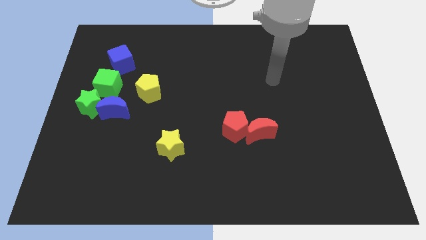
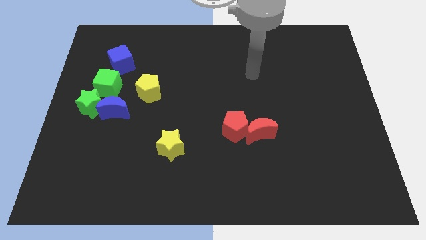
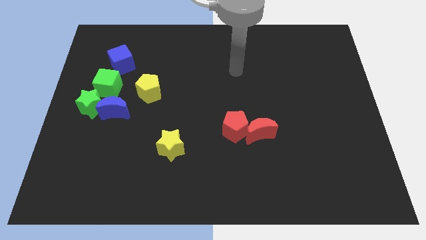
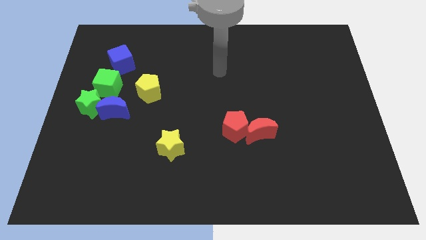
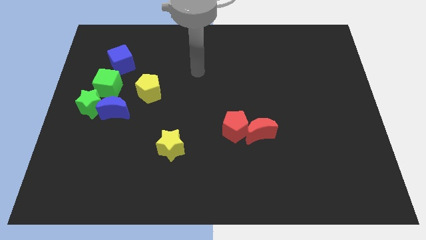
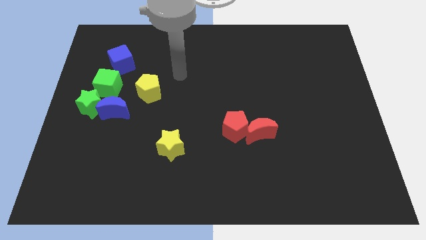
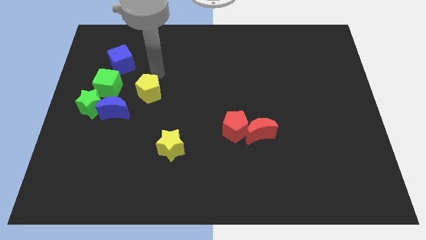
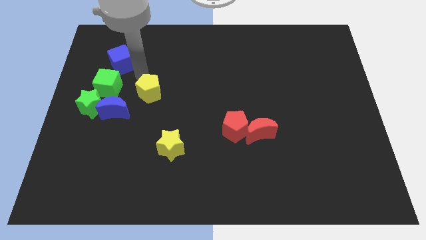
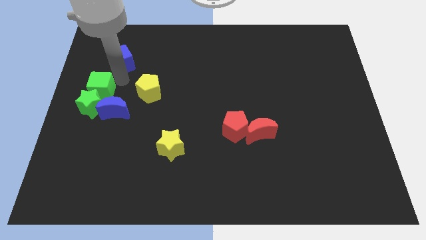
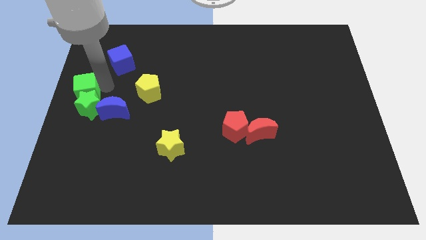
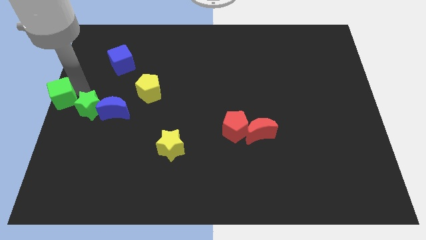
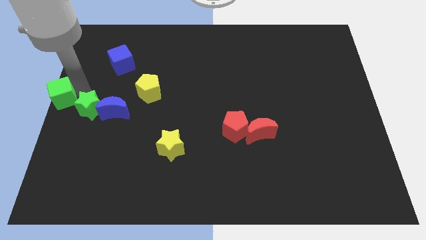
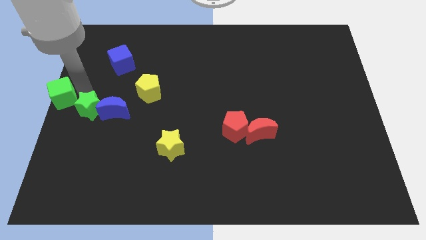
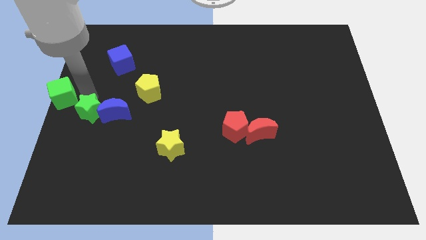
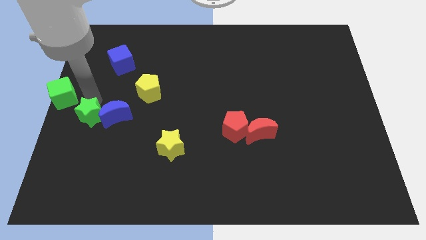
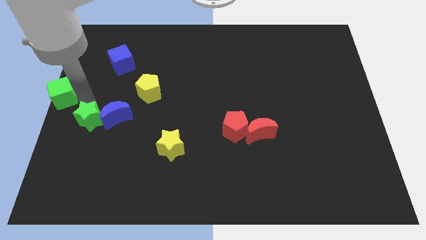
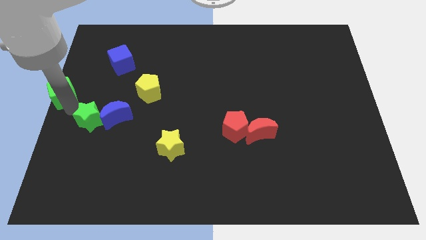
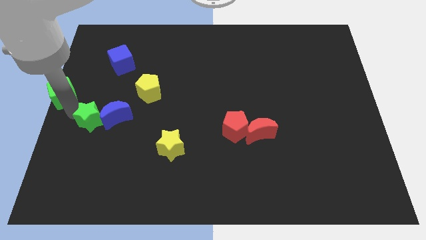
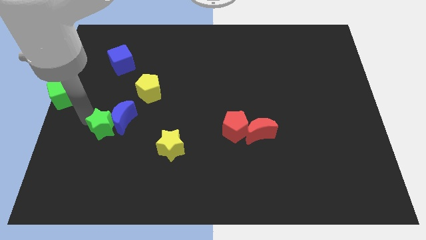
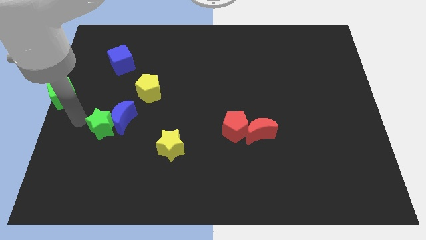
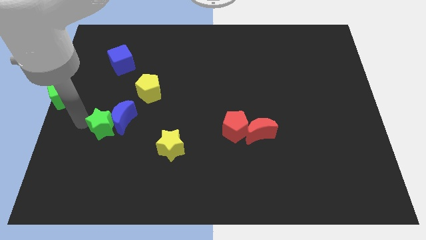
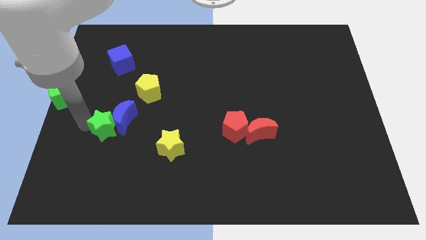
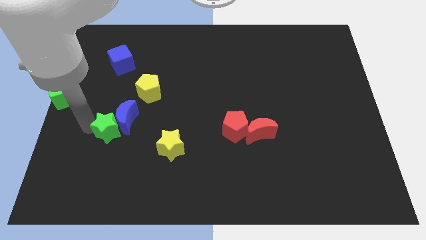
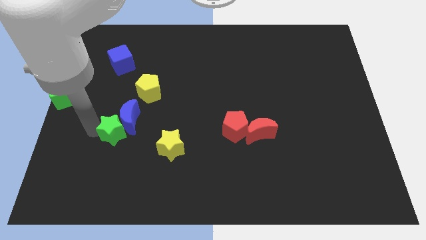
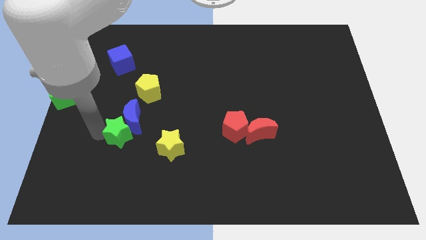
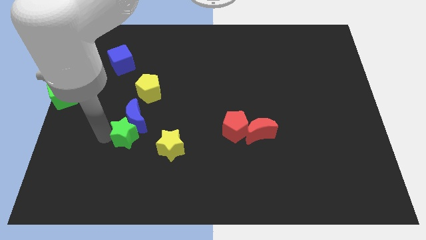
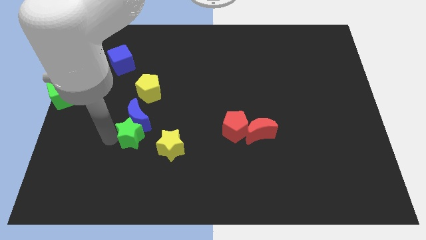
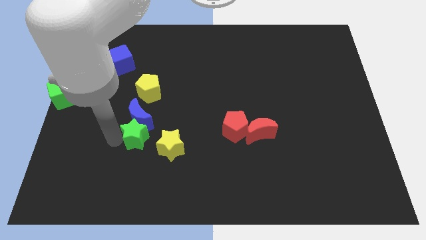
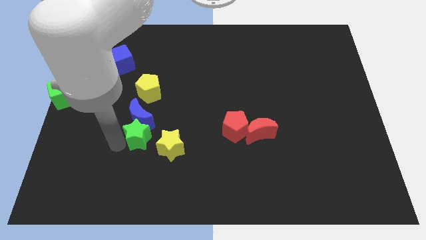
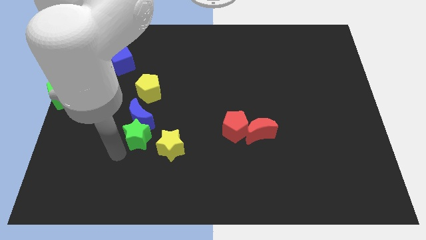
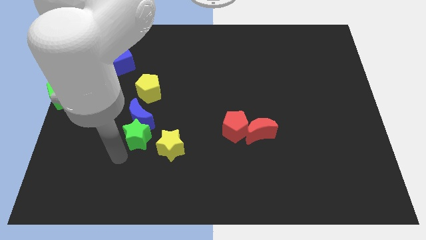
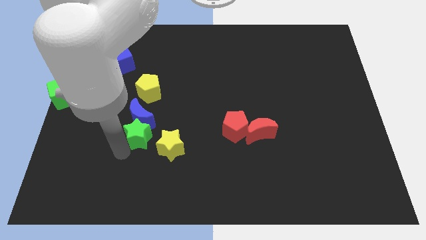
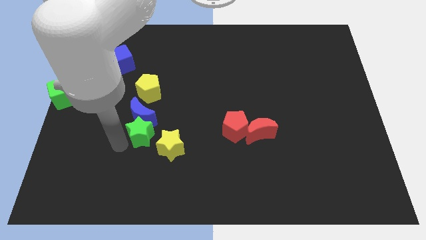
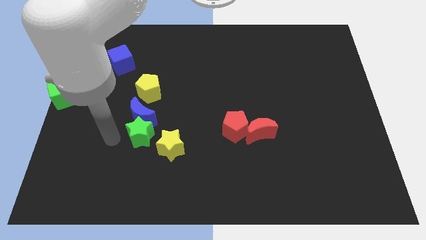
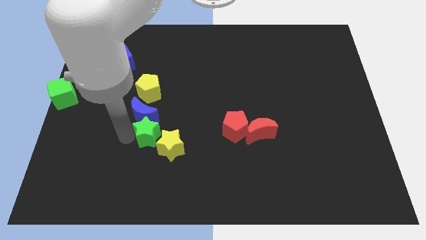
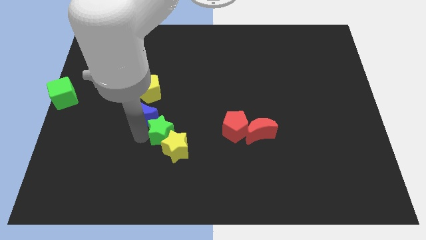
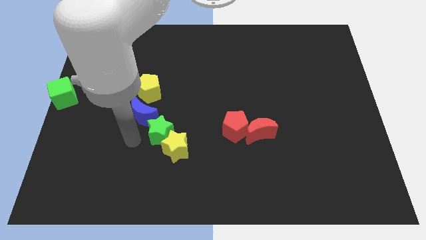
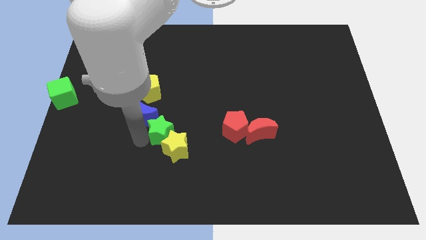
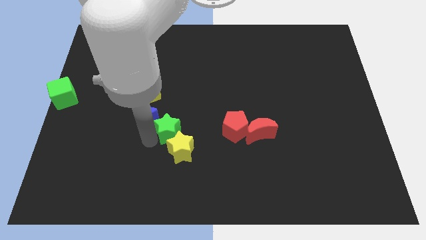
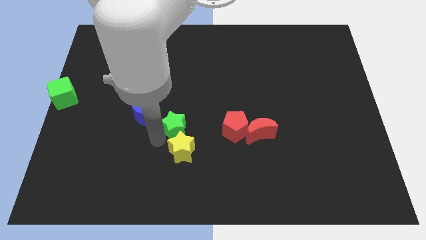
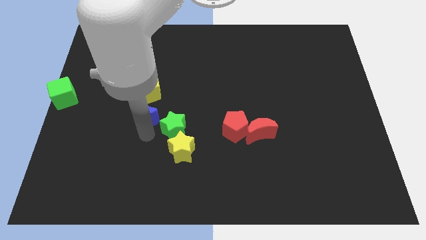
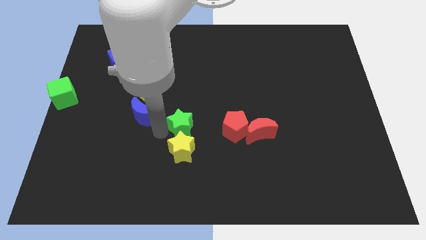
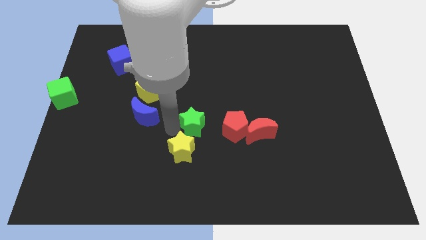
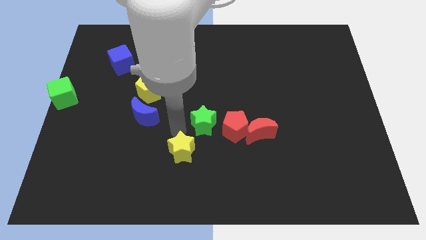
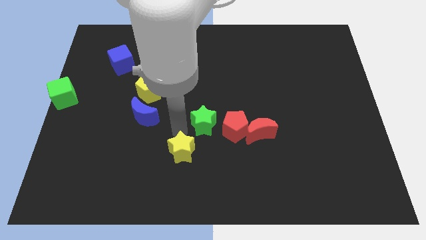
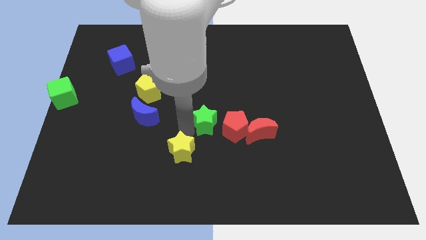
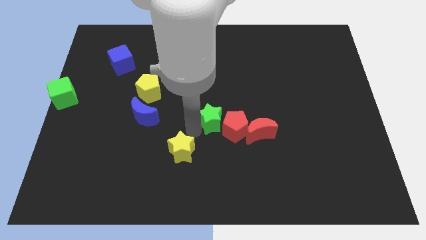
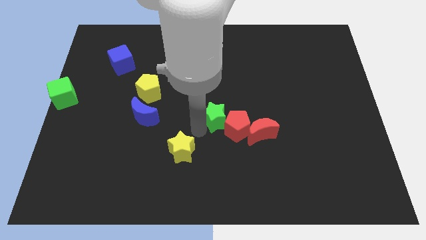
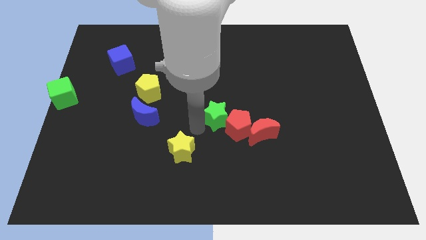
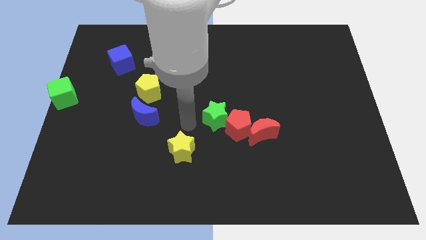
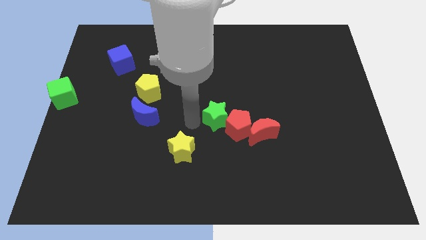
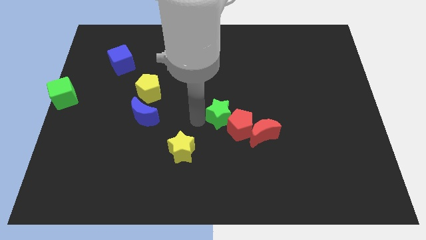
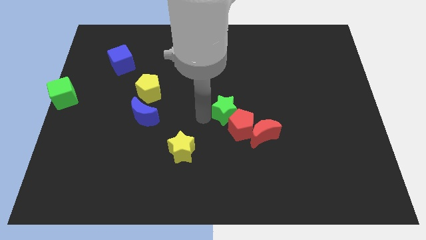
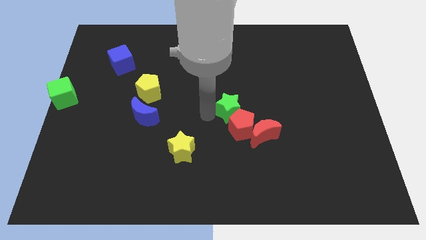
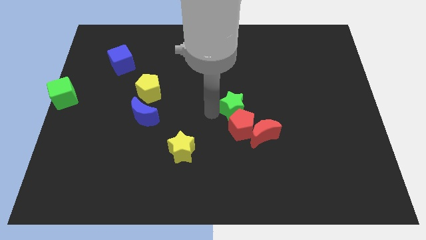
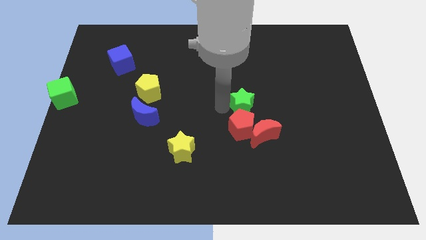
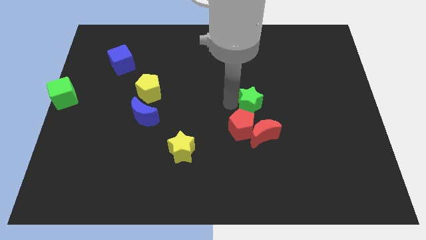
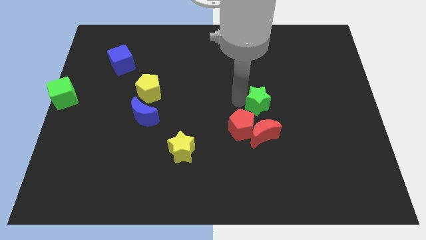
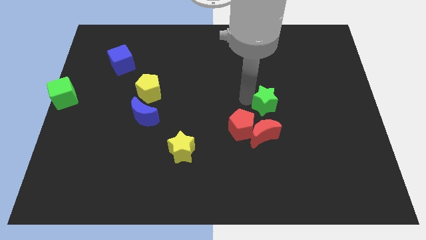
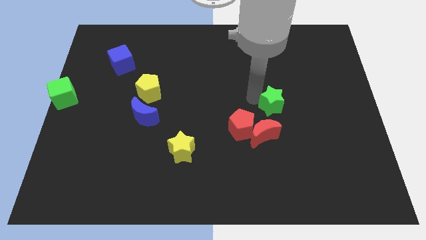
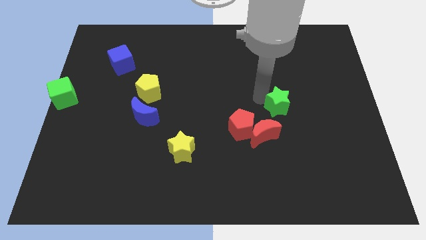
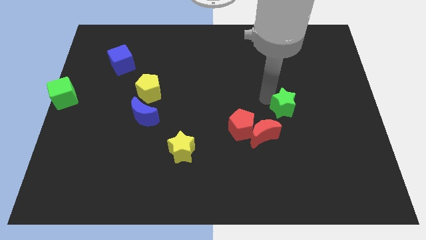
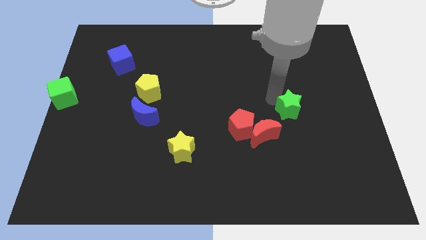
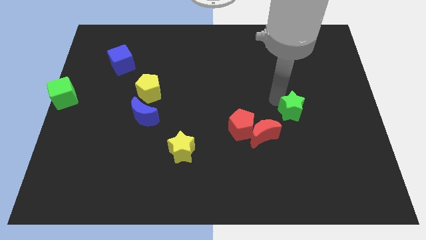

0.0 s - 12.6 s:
slide the green star to the right of the red pentagon
